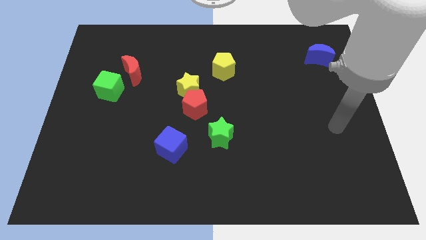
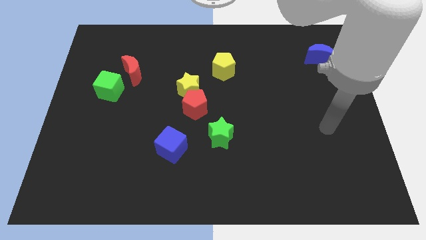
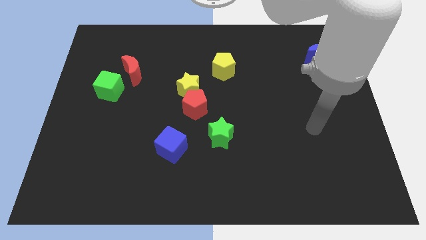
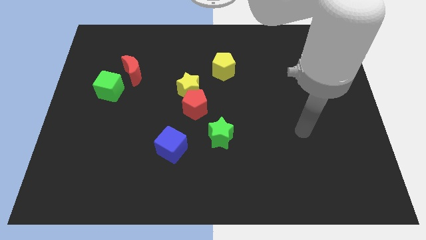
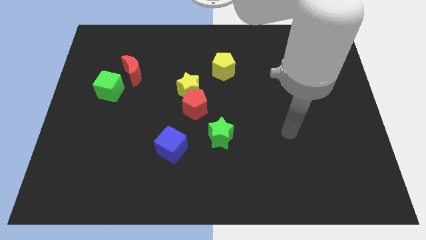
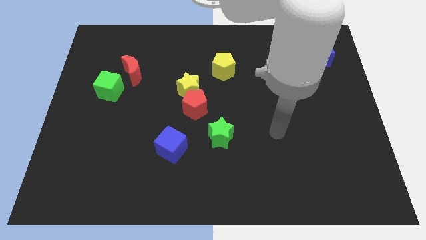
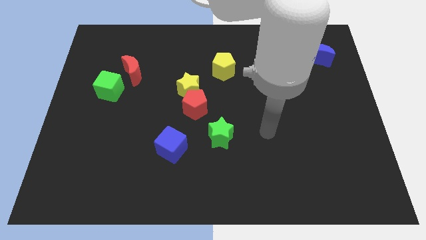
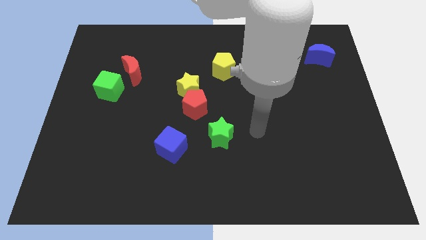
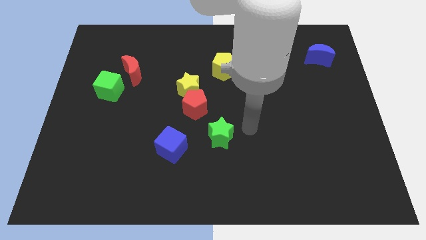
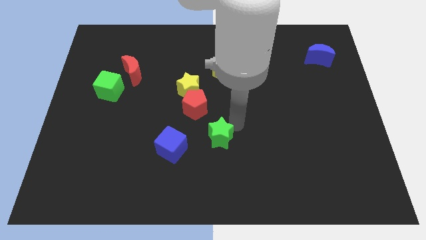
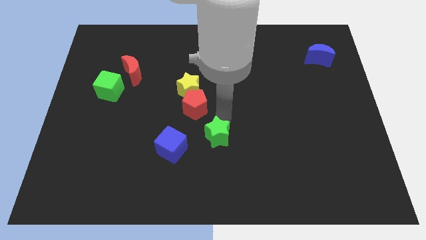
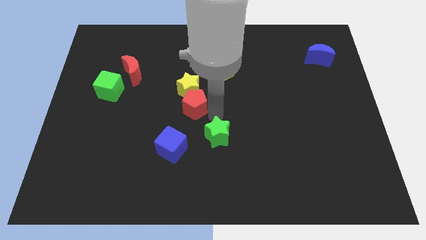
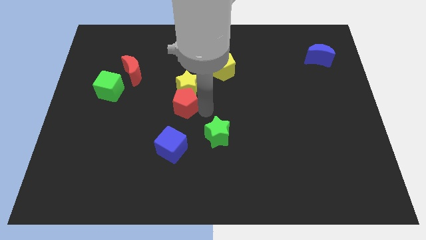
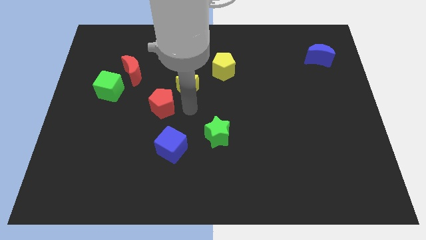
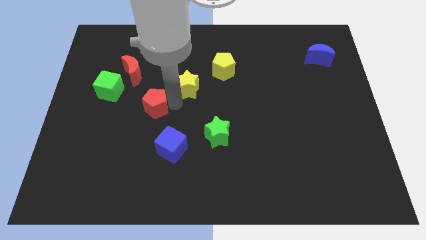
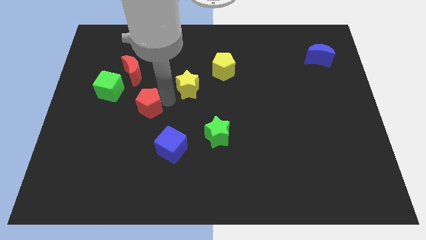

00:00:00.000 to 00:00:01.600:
separate the yellow star from the red pentagon

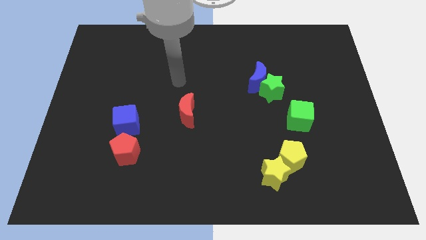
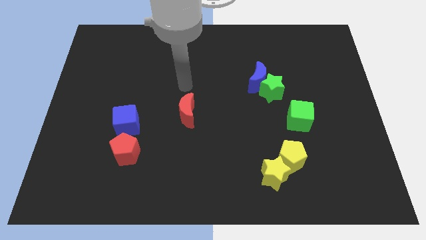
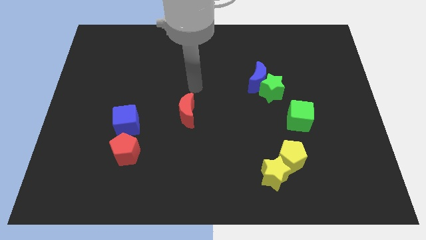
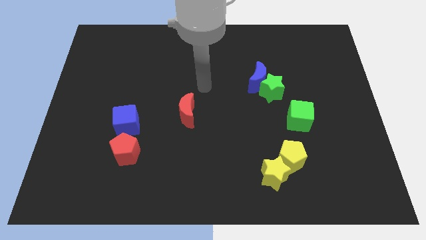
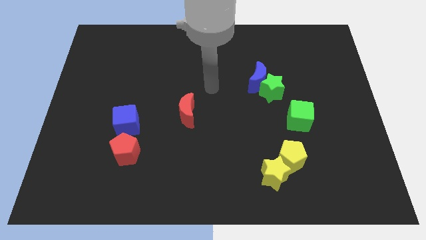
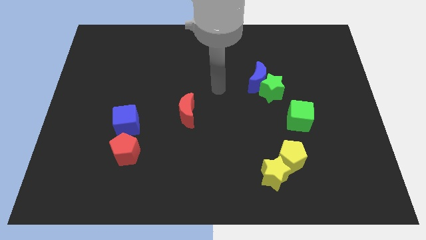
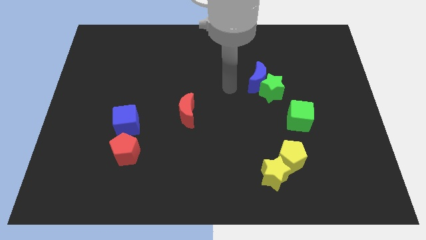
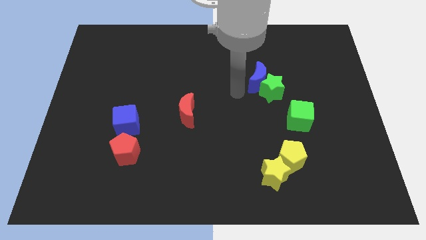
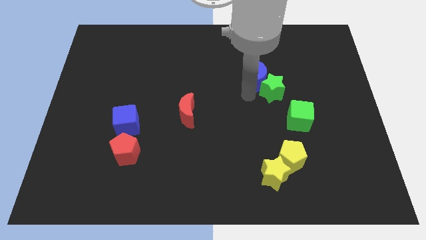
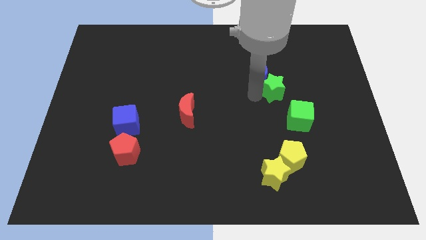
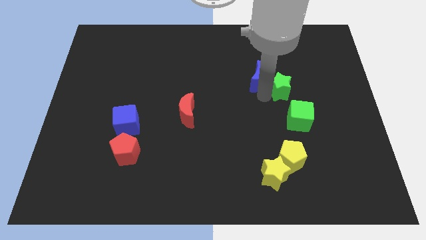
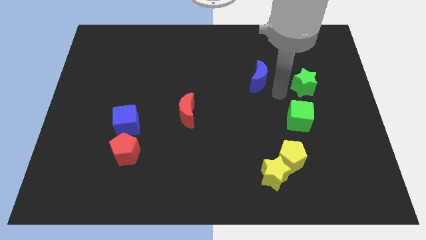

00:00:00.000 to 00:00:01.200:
pull the blue moon apart from the green star

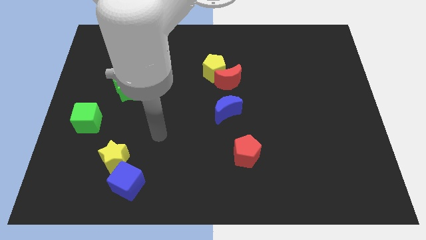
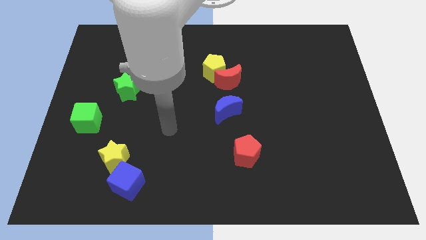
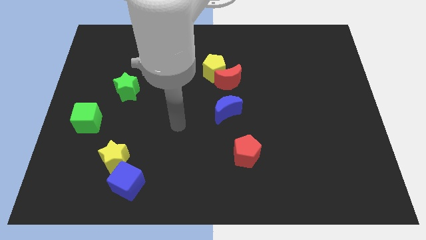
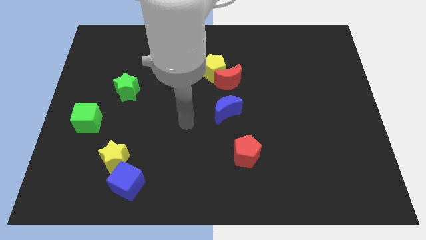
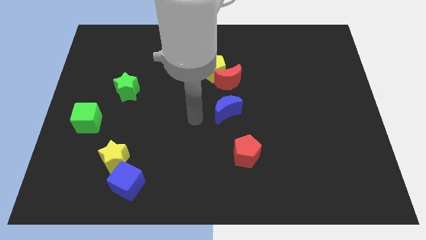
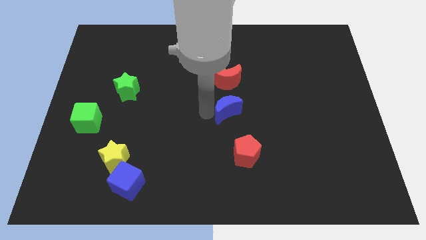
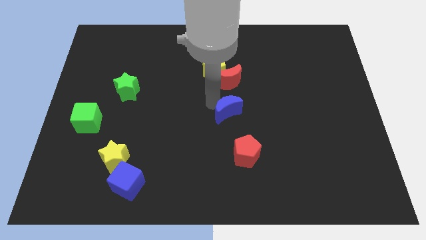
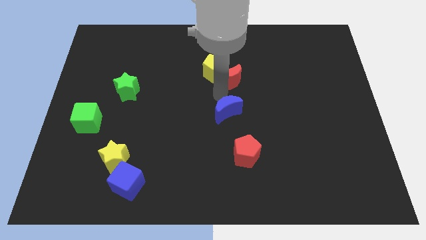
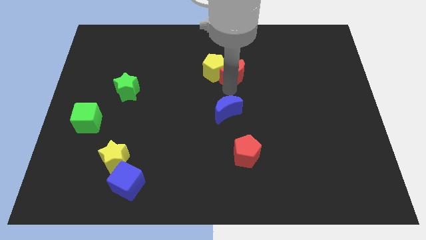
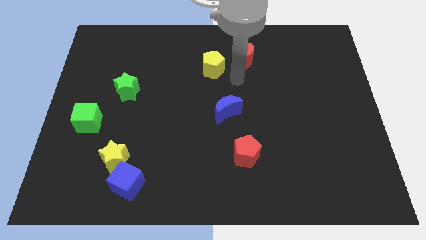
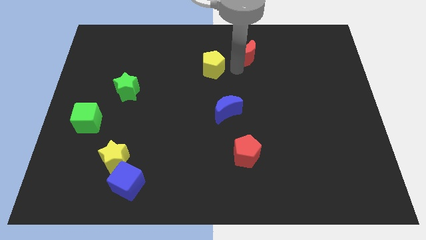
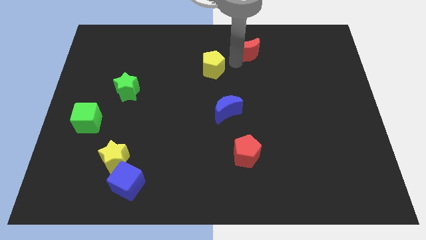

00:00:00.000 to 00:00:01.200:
pull the yellow pentagon apart from the red moon

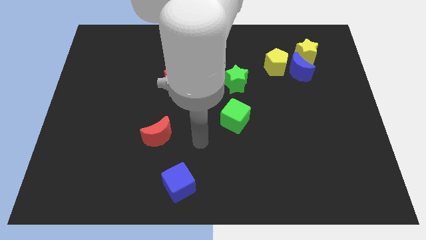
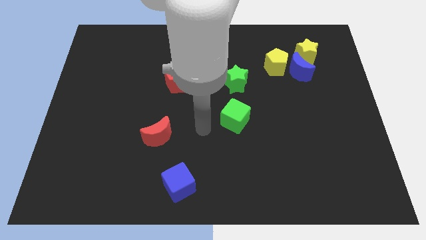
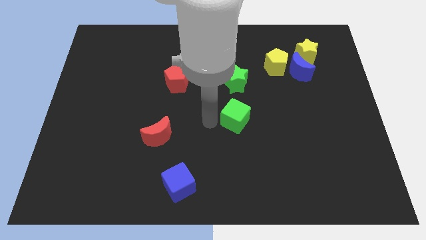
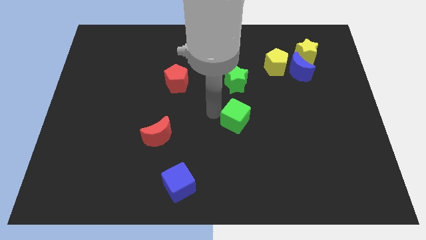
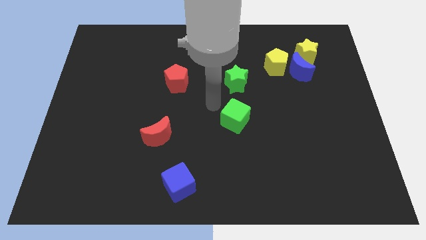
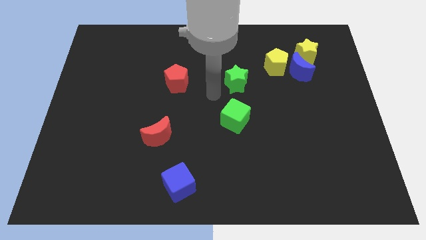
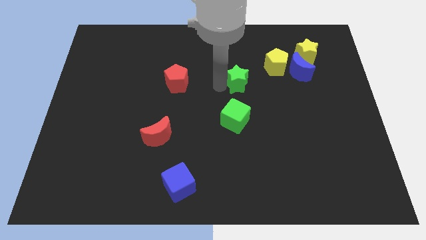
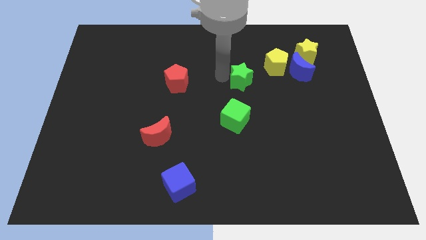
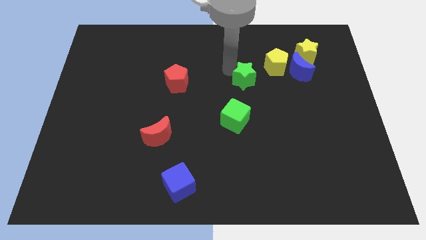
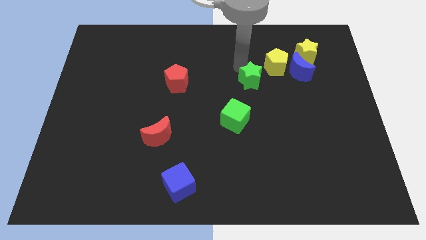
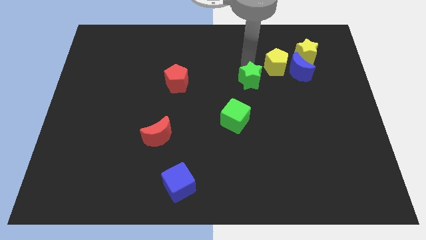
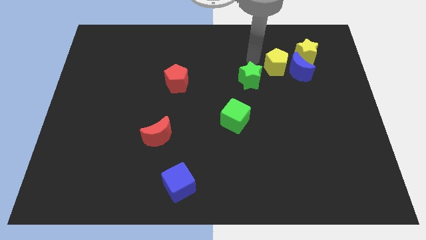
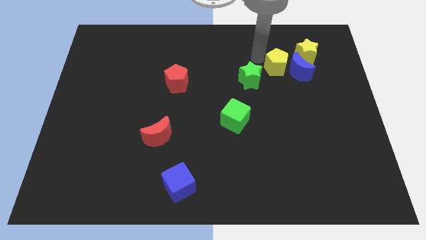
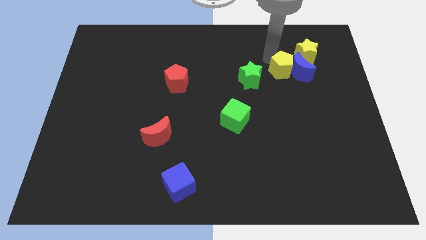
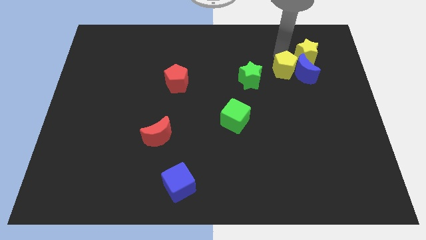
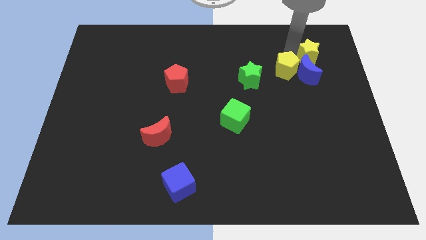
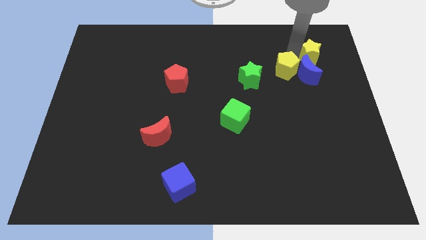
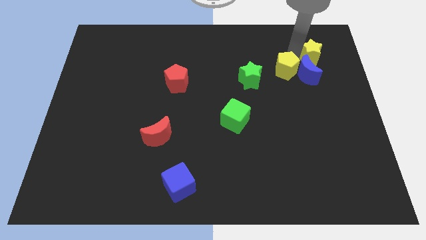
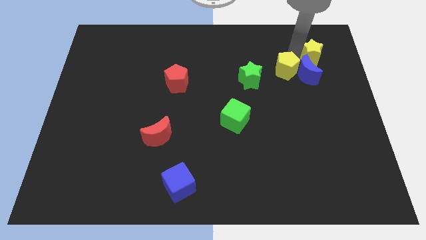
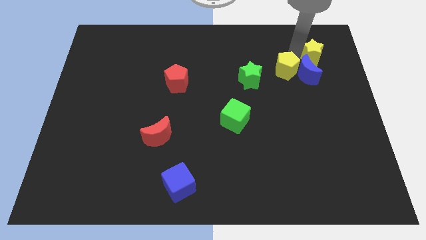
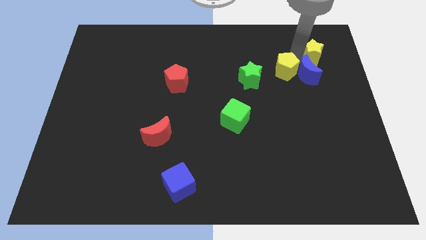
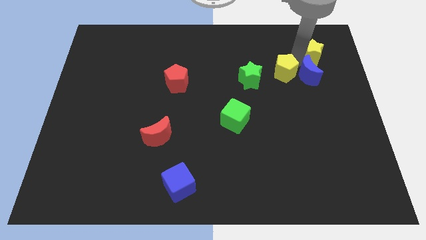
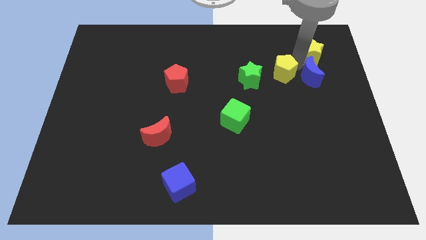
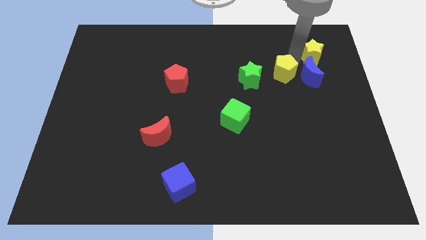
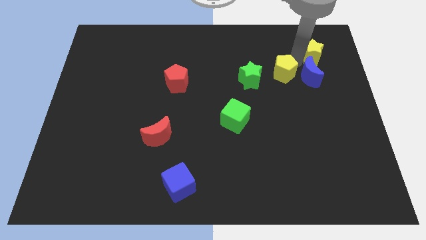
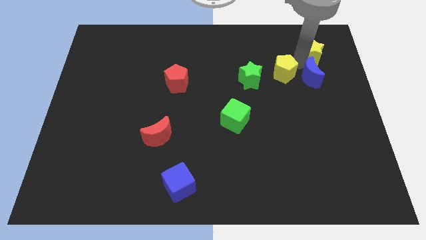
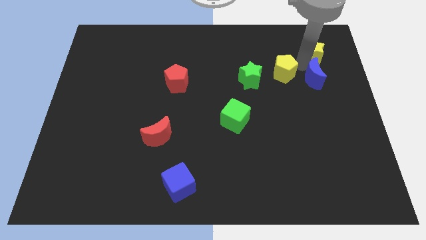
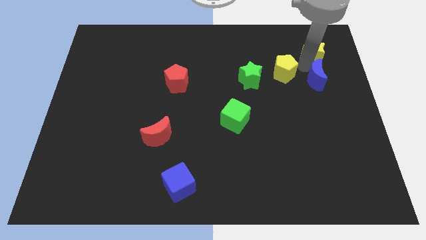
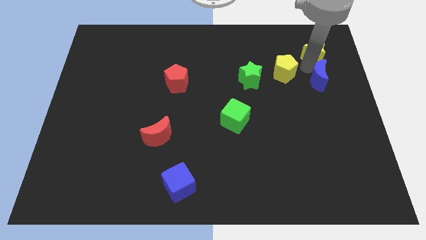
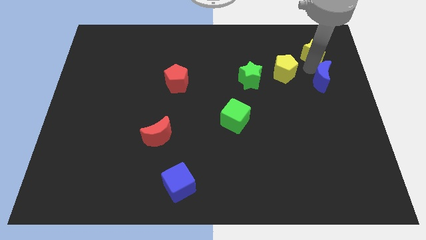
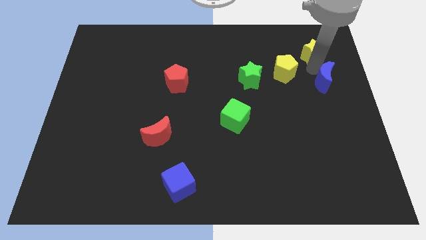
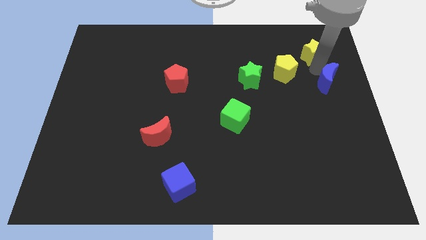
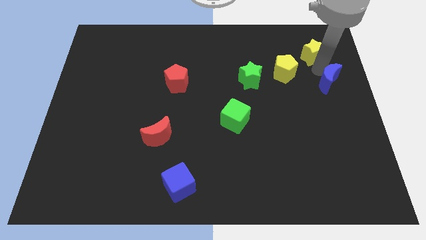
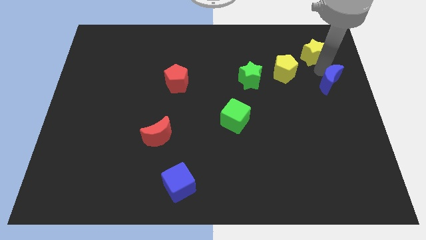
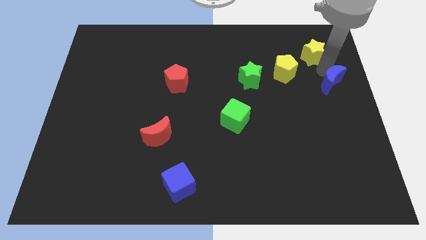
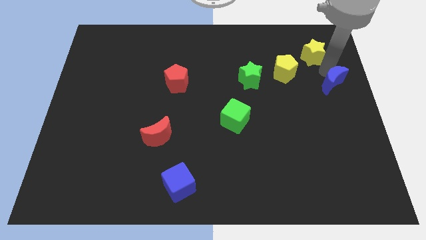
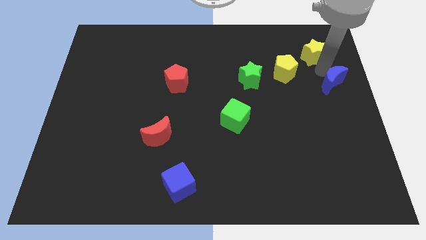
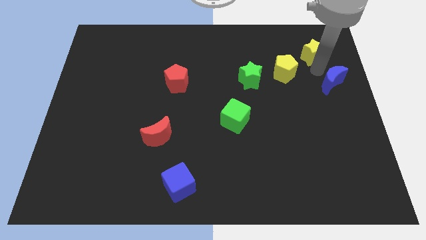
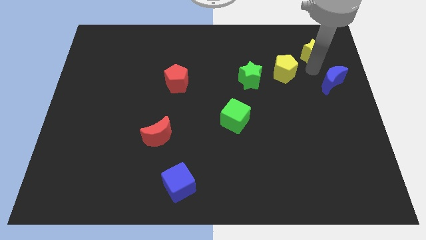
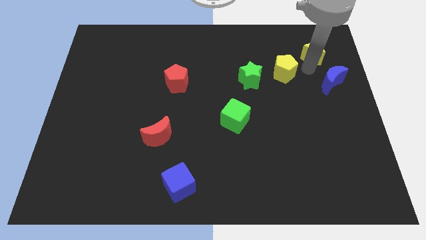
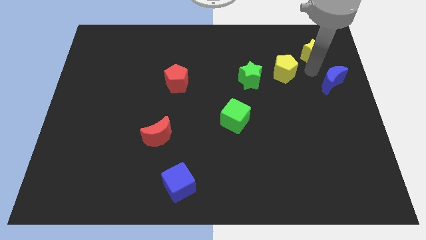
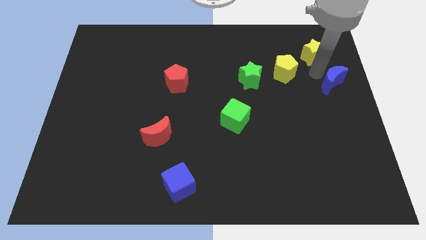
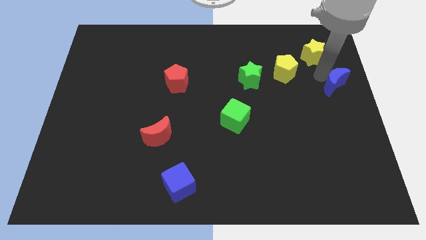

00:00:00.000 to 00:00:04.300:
pull the blue moon apart from the yellow pentagon and yellow star

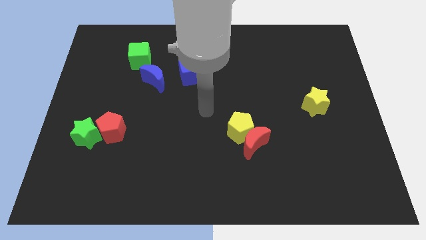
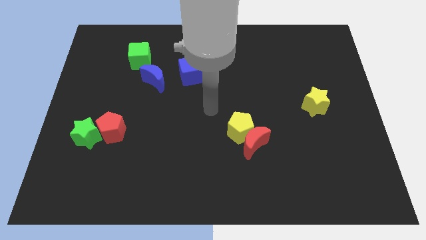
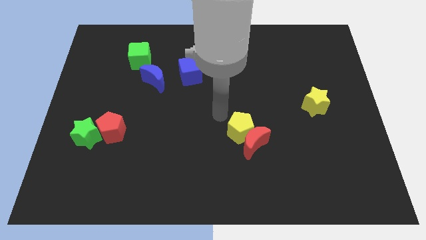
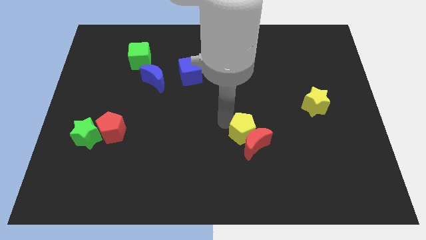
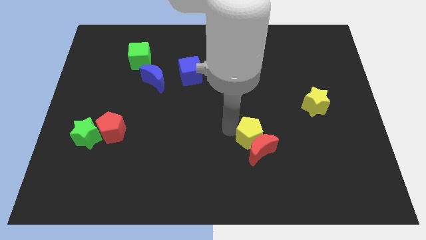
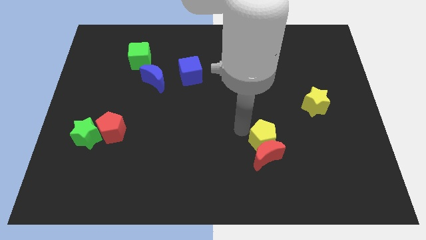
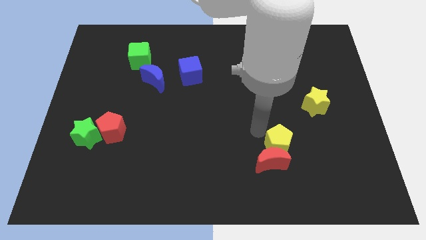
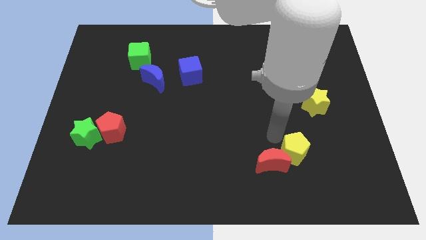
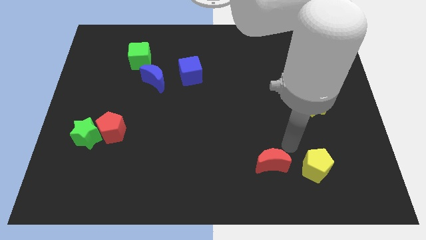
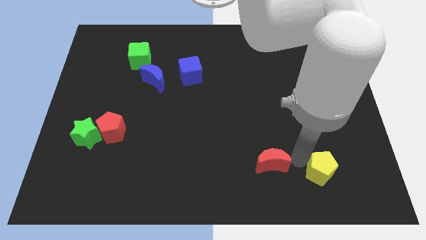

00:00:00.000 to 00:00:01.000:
separate the red moon from the yellow pentagon
